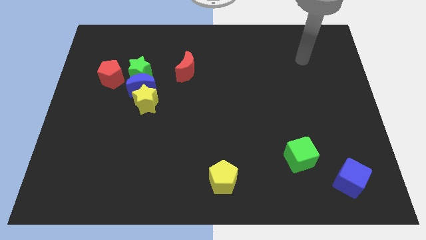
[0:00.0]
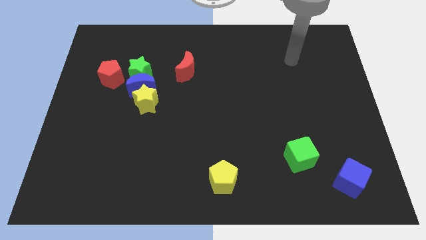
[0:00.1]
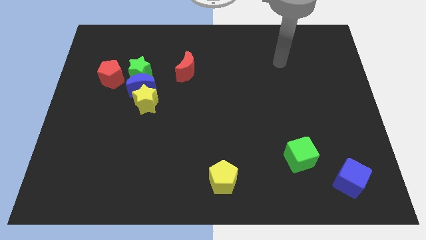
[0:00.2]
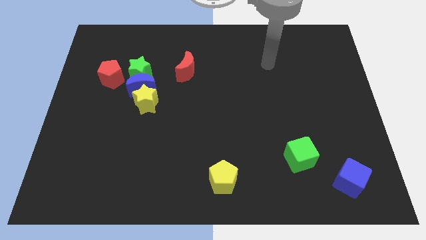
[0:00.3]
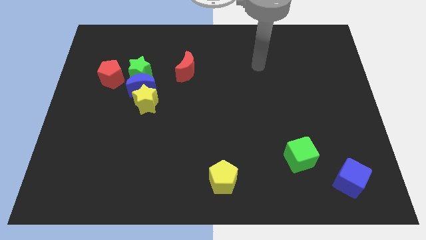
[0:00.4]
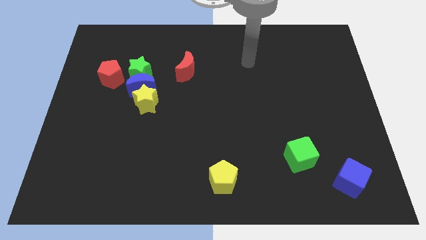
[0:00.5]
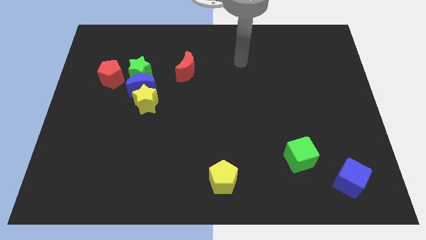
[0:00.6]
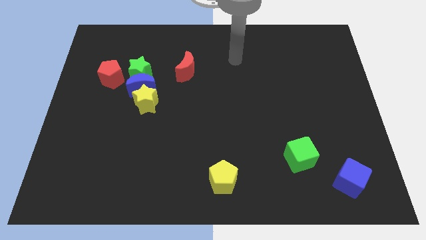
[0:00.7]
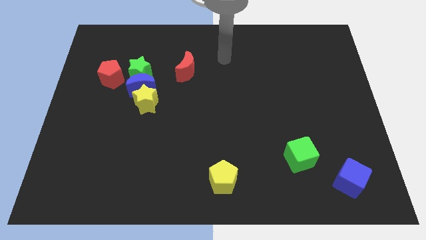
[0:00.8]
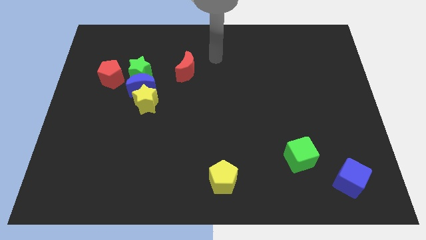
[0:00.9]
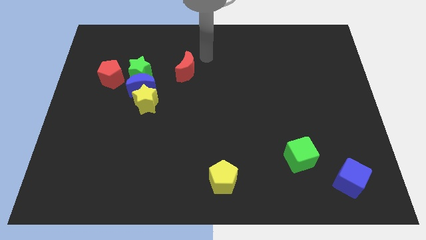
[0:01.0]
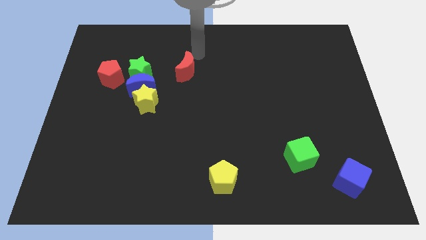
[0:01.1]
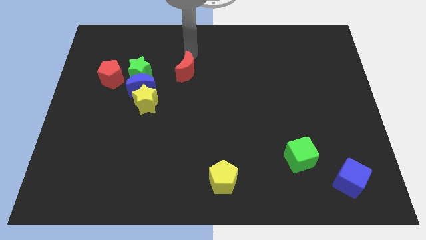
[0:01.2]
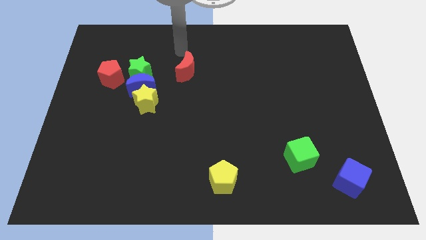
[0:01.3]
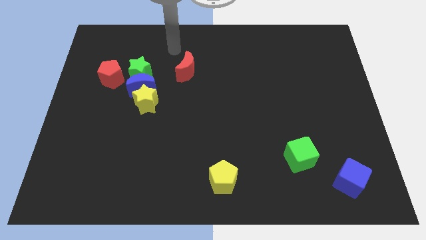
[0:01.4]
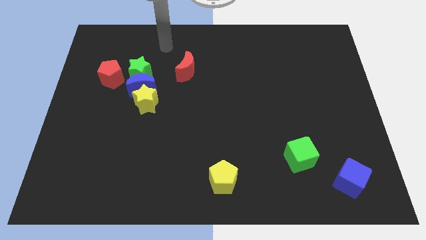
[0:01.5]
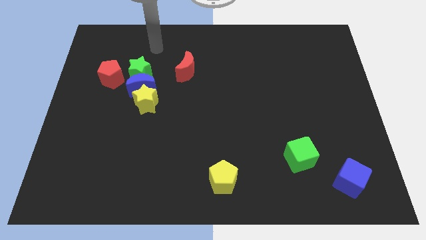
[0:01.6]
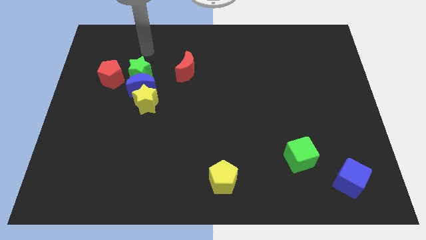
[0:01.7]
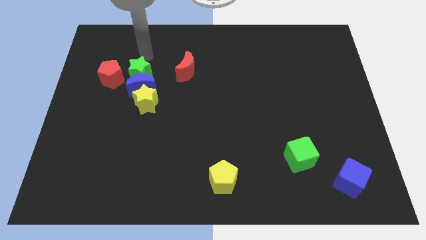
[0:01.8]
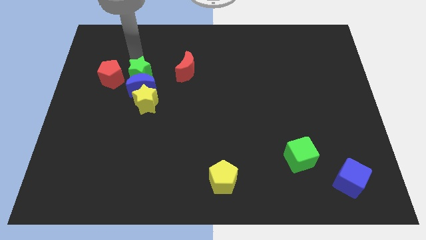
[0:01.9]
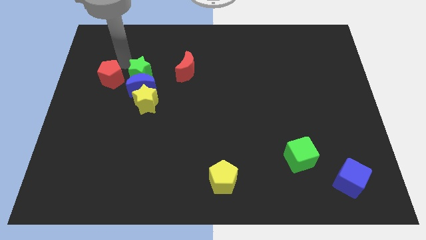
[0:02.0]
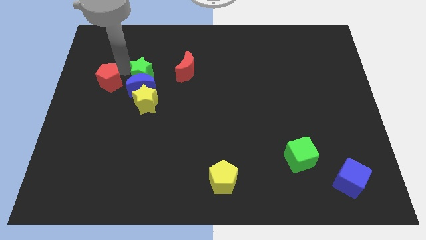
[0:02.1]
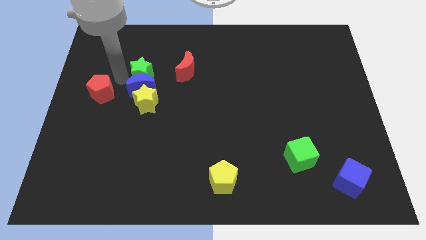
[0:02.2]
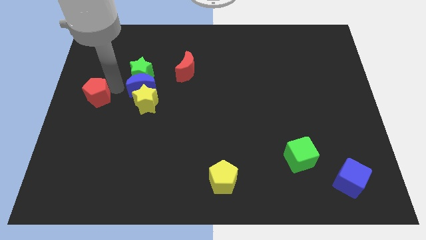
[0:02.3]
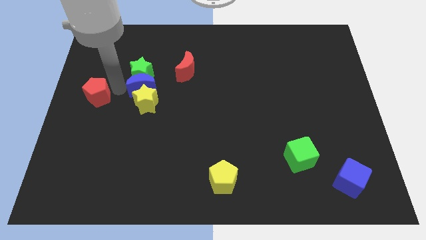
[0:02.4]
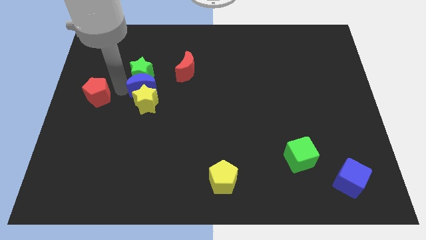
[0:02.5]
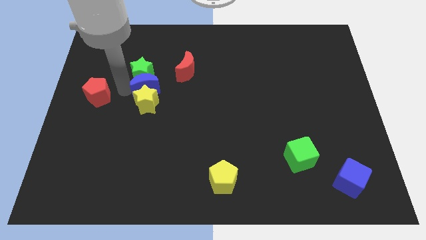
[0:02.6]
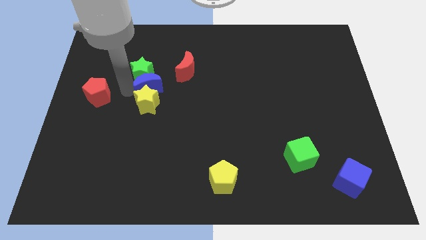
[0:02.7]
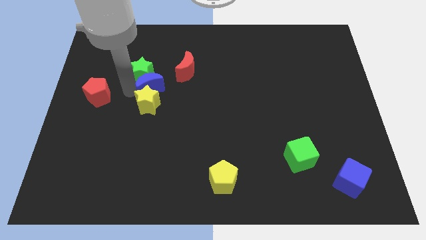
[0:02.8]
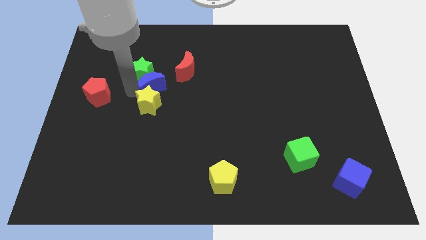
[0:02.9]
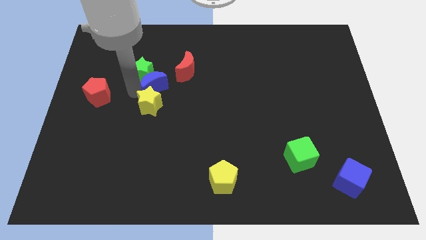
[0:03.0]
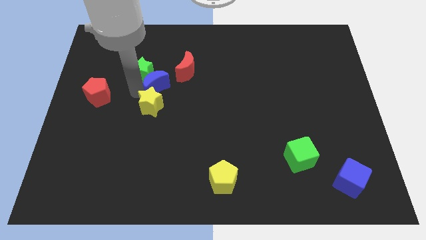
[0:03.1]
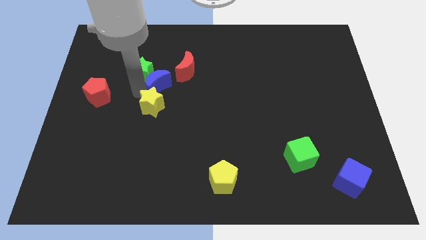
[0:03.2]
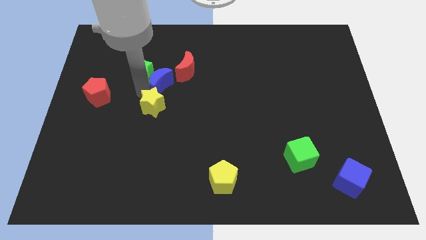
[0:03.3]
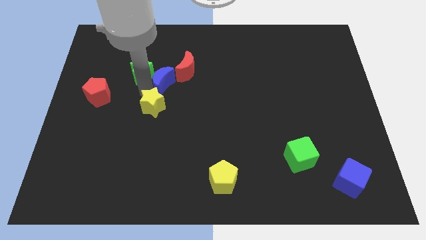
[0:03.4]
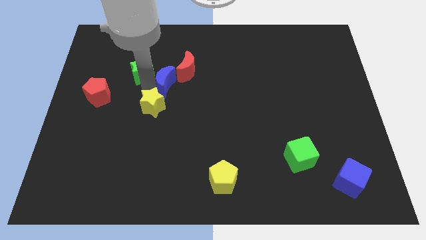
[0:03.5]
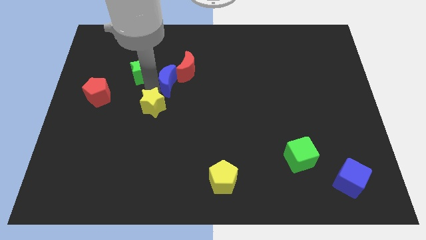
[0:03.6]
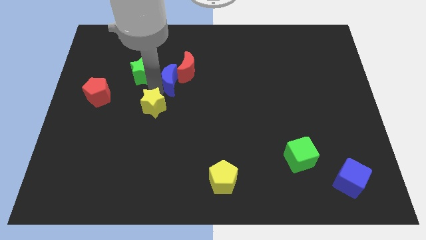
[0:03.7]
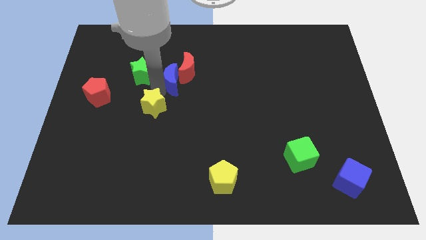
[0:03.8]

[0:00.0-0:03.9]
slightly move the blue moon to the right

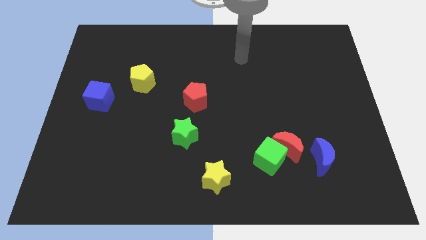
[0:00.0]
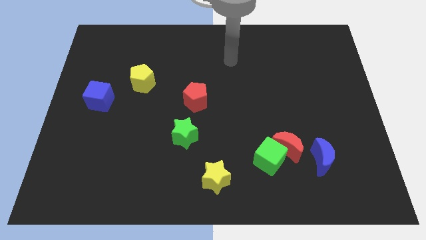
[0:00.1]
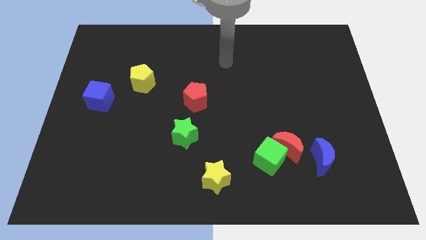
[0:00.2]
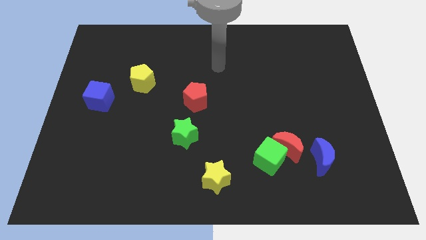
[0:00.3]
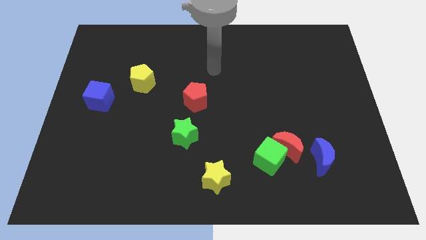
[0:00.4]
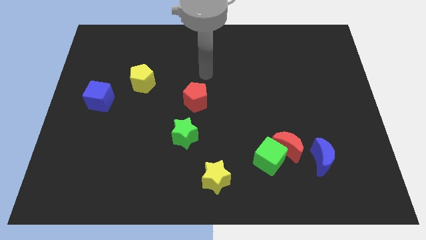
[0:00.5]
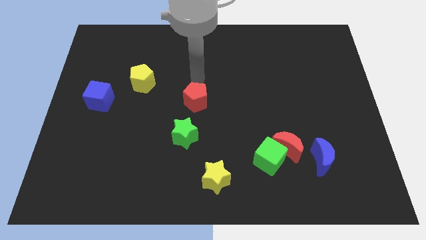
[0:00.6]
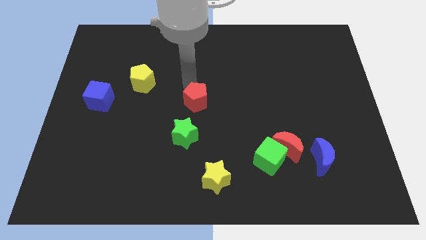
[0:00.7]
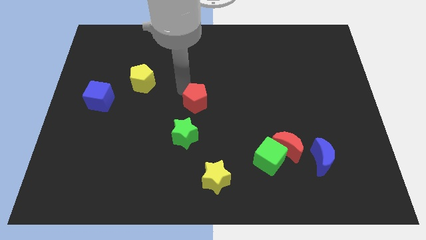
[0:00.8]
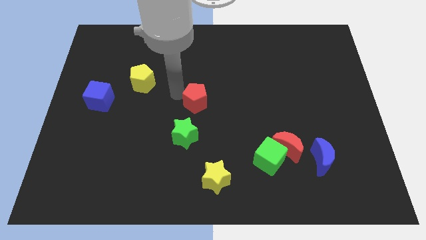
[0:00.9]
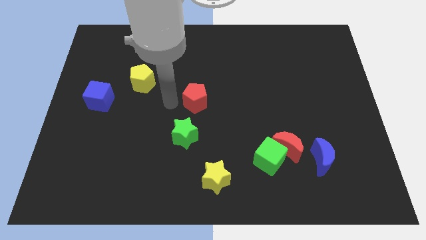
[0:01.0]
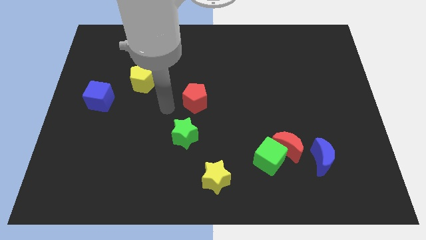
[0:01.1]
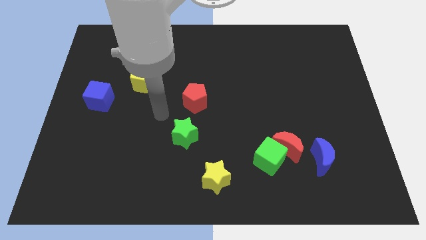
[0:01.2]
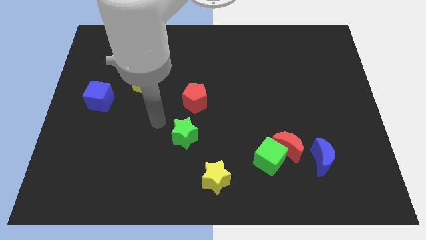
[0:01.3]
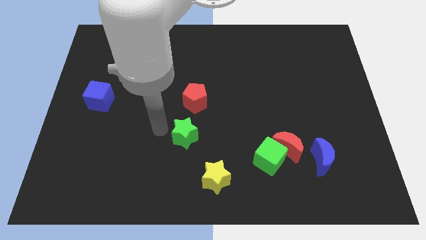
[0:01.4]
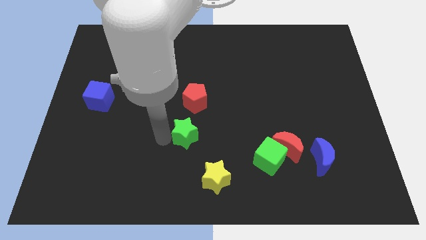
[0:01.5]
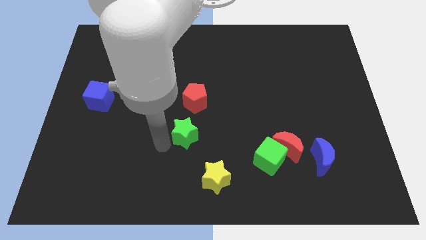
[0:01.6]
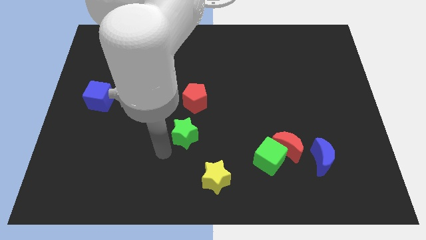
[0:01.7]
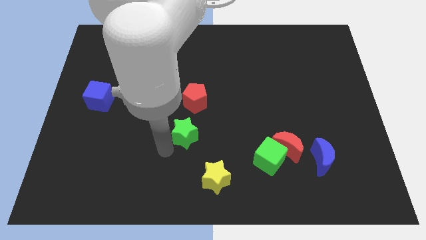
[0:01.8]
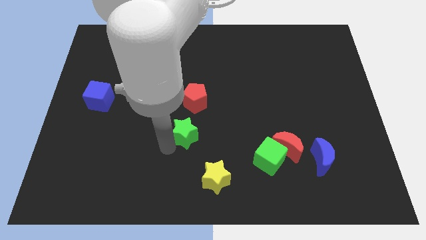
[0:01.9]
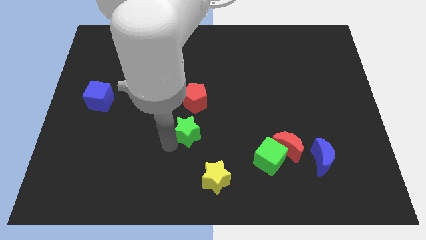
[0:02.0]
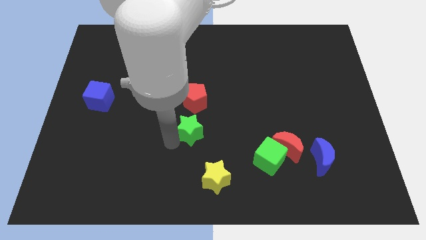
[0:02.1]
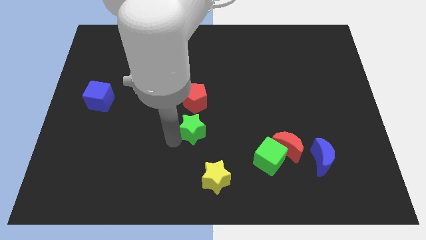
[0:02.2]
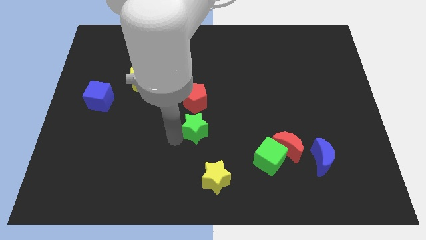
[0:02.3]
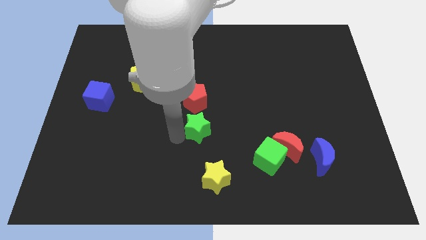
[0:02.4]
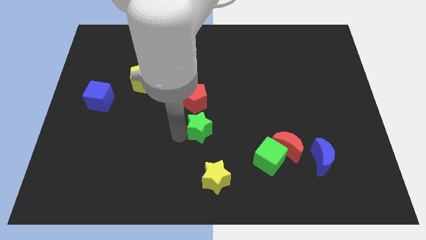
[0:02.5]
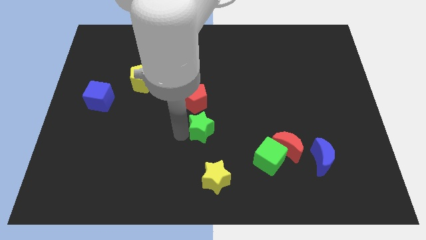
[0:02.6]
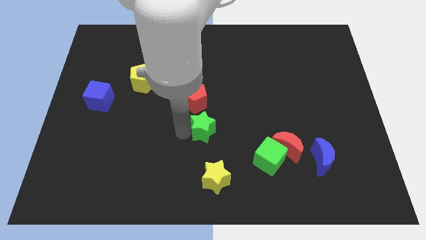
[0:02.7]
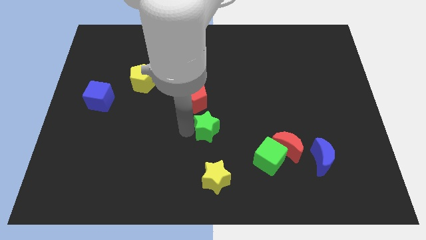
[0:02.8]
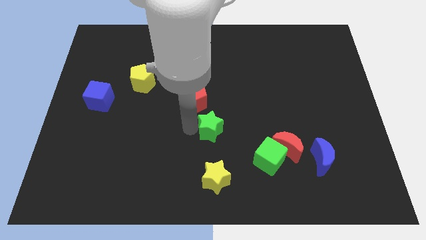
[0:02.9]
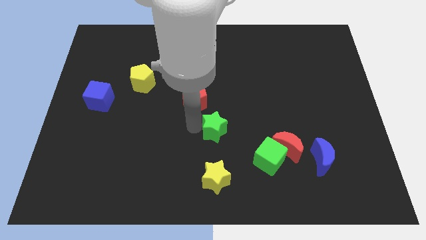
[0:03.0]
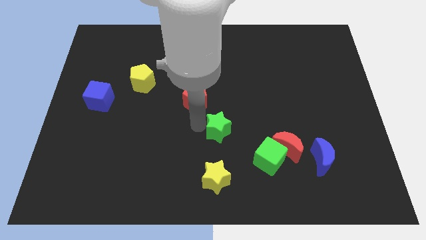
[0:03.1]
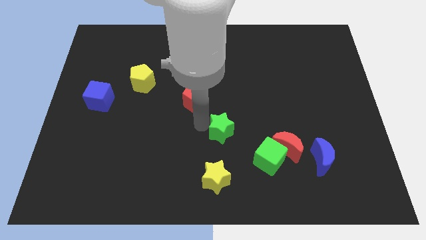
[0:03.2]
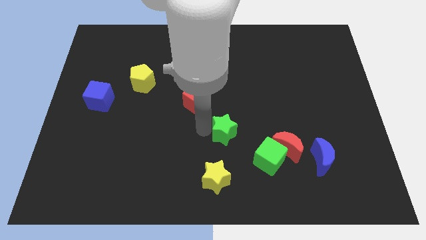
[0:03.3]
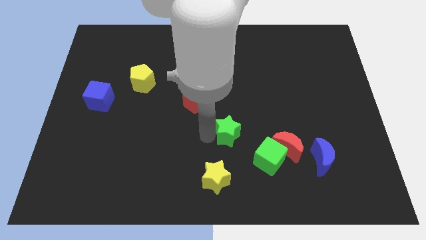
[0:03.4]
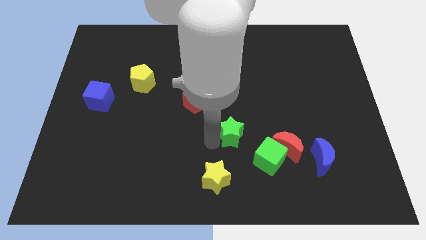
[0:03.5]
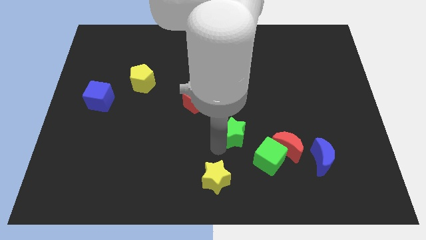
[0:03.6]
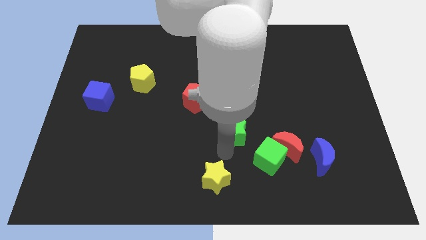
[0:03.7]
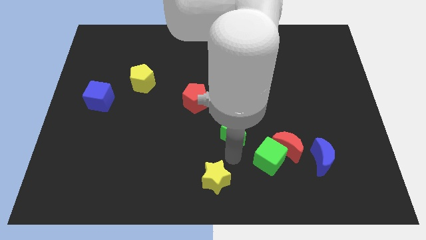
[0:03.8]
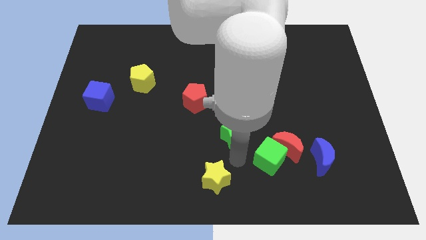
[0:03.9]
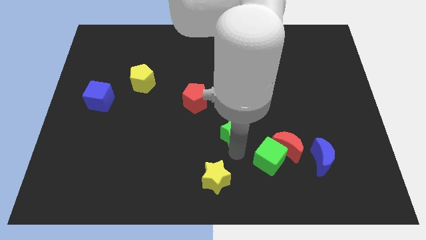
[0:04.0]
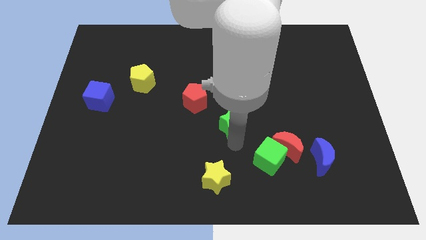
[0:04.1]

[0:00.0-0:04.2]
move the green star somewhat diagonally up and to the right

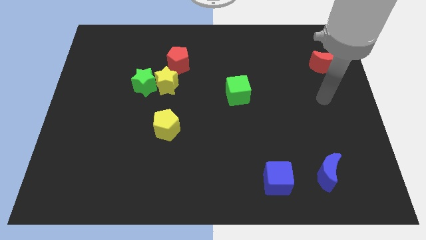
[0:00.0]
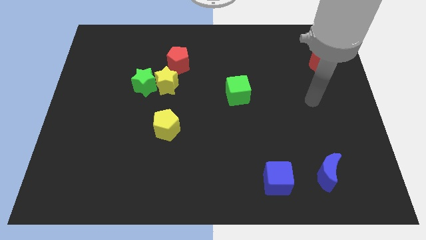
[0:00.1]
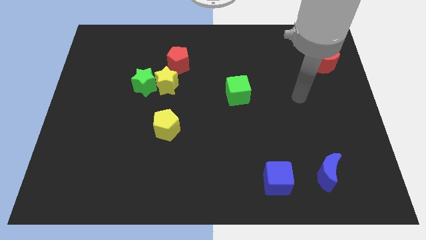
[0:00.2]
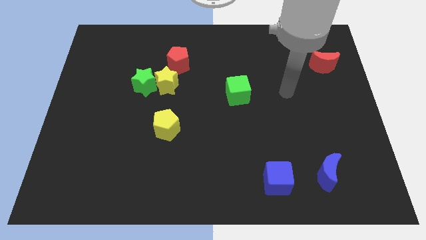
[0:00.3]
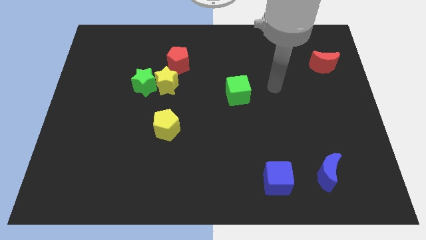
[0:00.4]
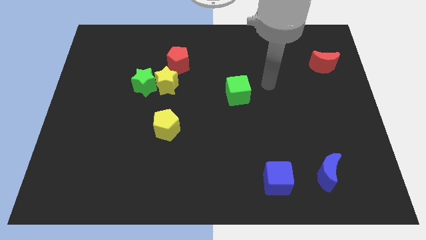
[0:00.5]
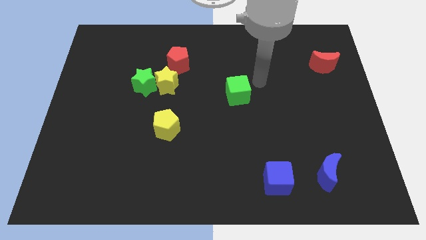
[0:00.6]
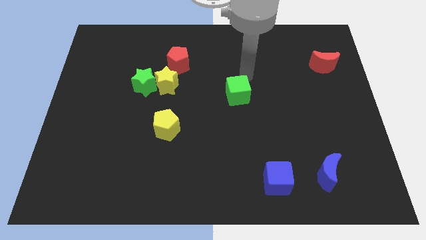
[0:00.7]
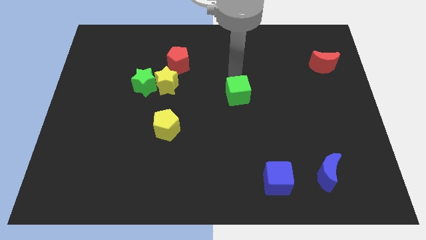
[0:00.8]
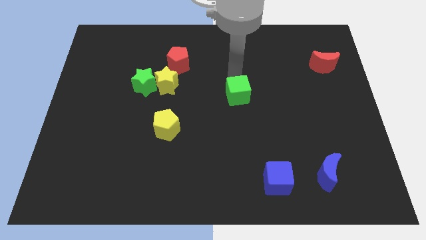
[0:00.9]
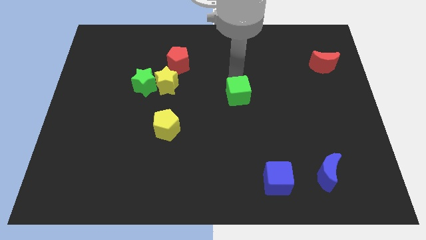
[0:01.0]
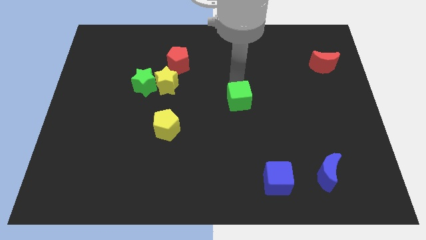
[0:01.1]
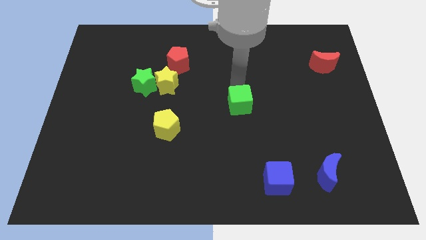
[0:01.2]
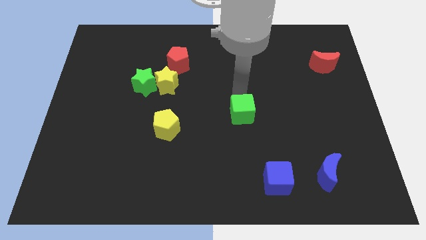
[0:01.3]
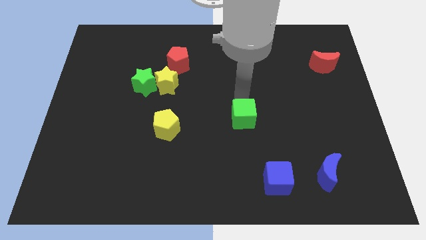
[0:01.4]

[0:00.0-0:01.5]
slide the green cube down somewhat
